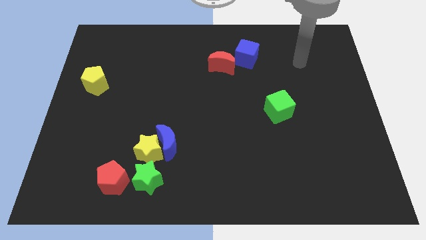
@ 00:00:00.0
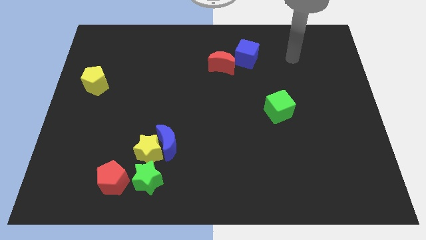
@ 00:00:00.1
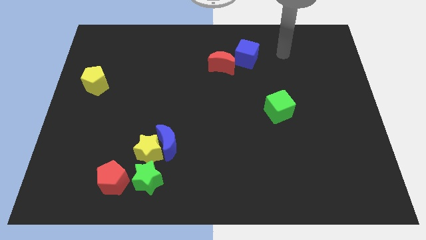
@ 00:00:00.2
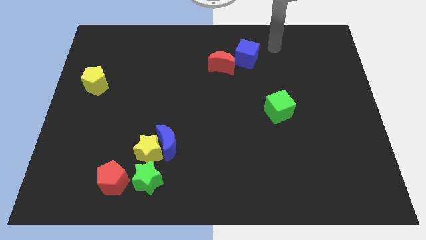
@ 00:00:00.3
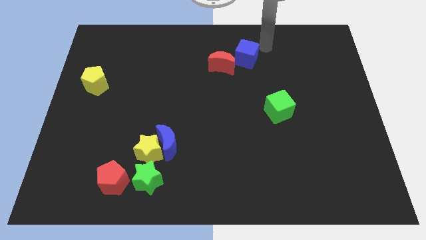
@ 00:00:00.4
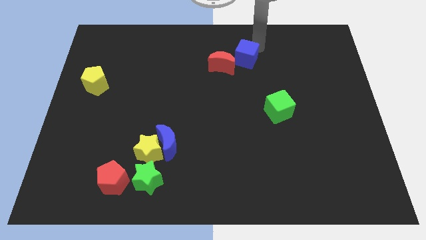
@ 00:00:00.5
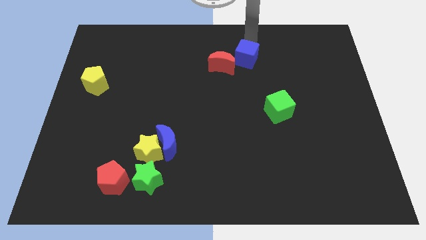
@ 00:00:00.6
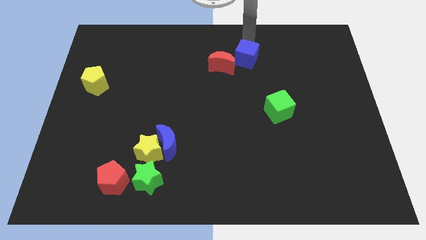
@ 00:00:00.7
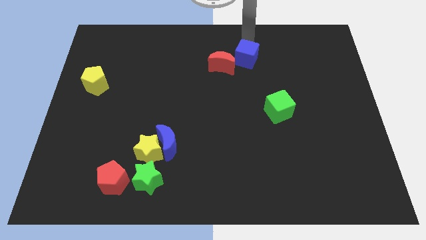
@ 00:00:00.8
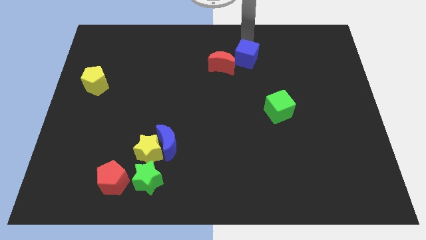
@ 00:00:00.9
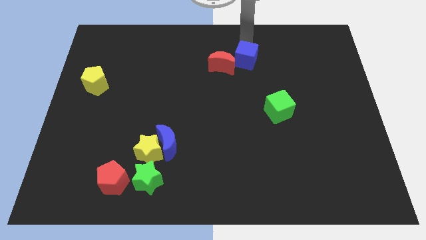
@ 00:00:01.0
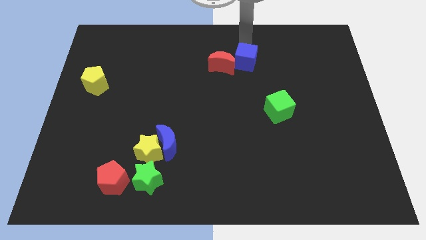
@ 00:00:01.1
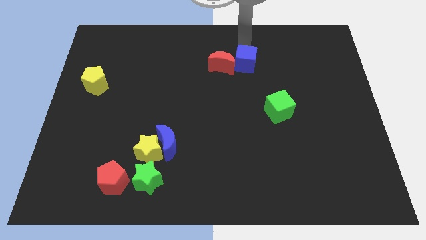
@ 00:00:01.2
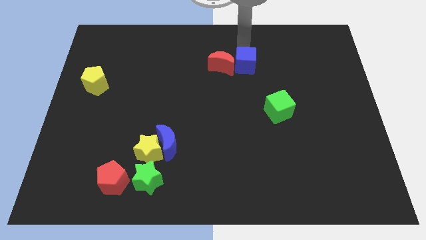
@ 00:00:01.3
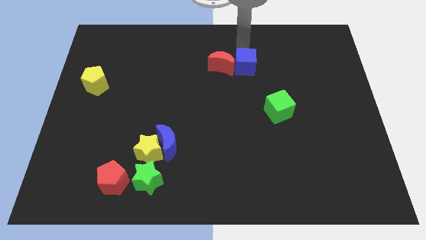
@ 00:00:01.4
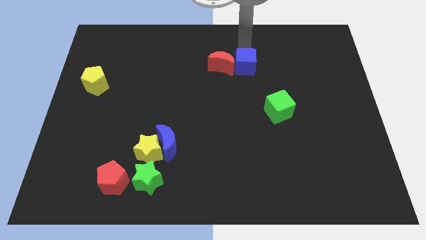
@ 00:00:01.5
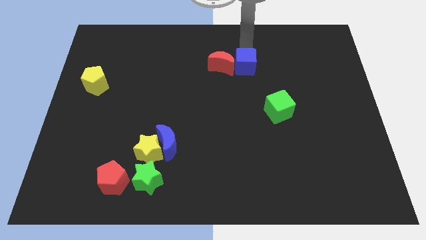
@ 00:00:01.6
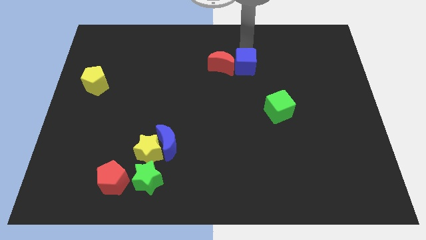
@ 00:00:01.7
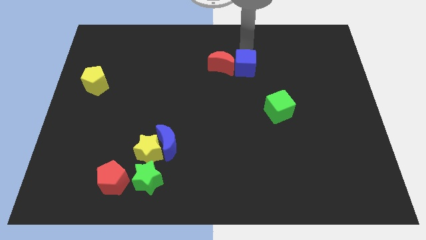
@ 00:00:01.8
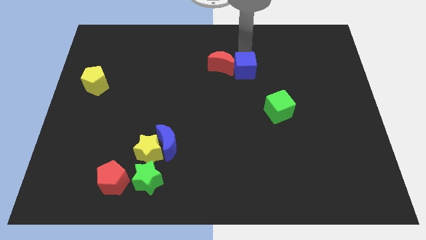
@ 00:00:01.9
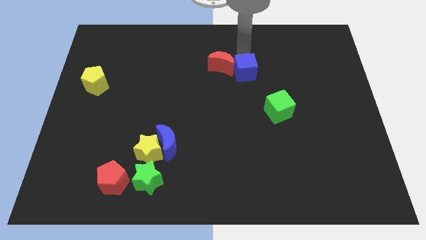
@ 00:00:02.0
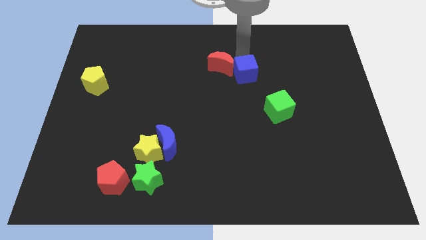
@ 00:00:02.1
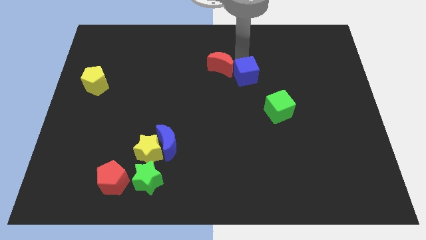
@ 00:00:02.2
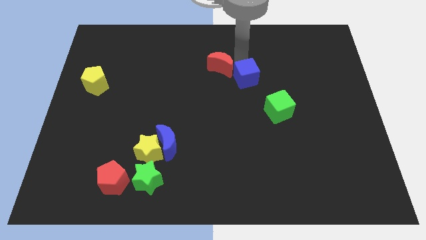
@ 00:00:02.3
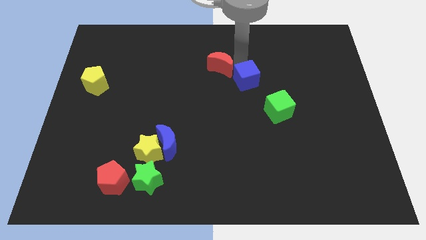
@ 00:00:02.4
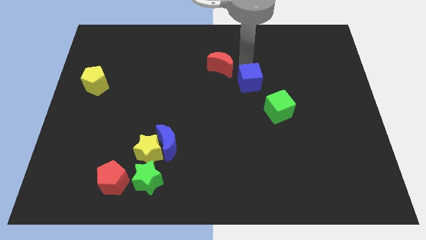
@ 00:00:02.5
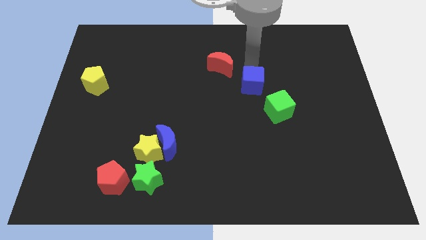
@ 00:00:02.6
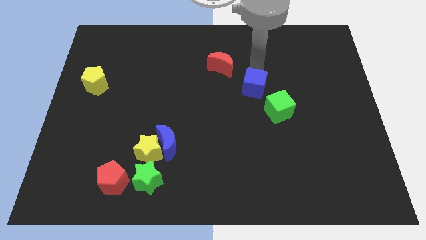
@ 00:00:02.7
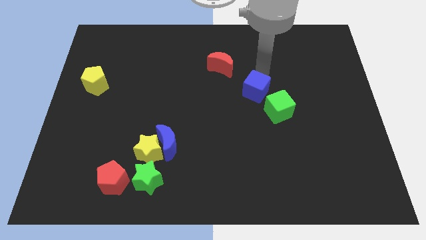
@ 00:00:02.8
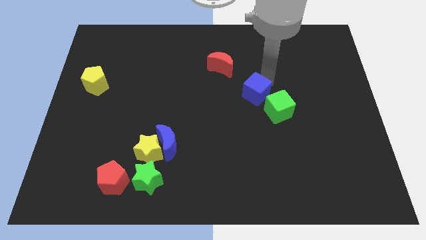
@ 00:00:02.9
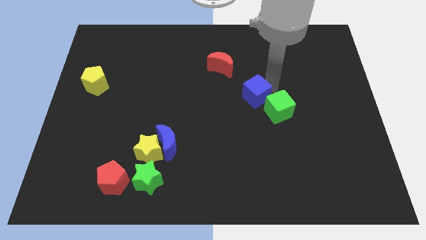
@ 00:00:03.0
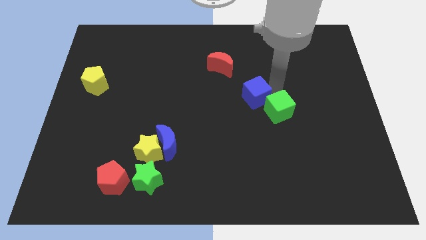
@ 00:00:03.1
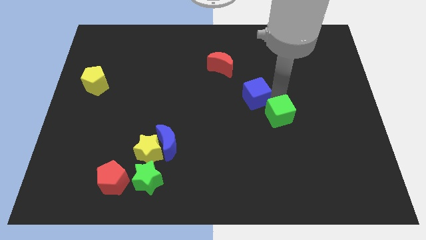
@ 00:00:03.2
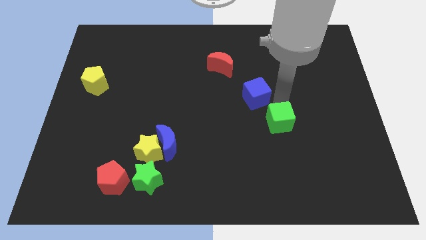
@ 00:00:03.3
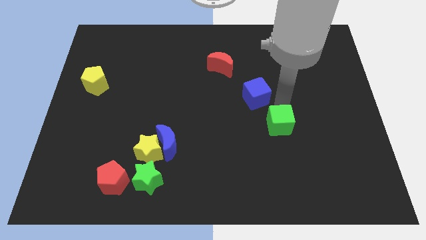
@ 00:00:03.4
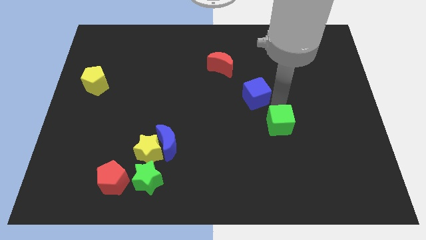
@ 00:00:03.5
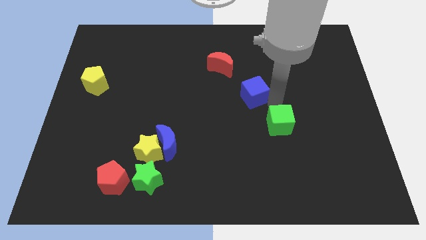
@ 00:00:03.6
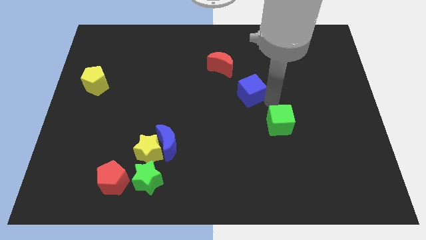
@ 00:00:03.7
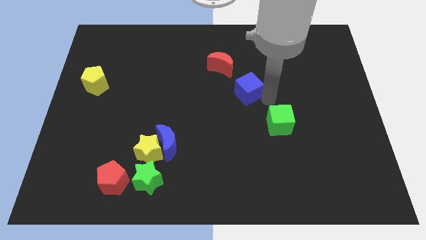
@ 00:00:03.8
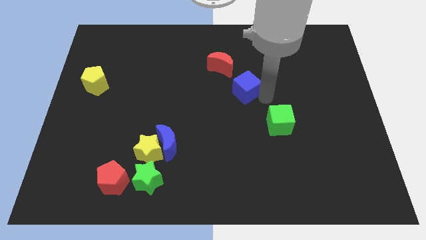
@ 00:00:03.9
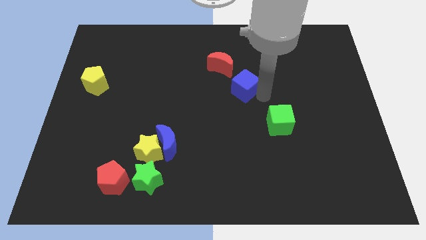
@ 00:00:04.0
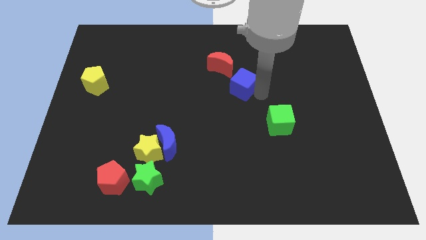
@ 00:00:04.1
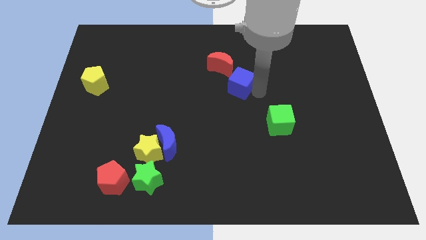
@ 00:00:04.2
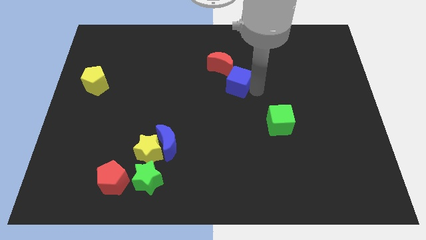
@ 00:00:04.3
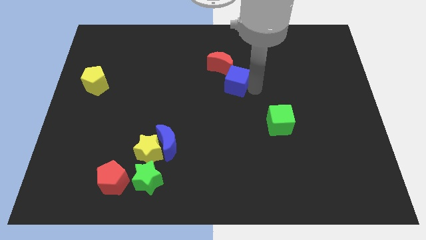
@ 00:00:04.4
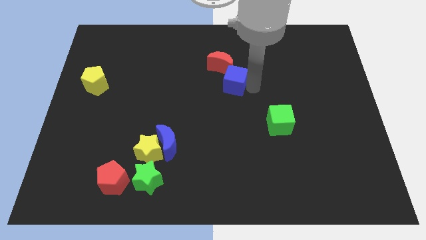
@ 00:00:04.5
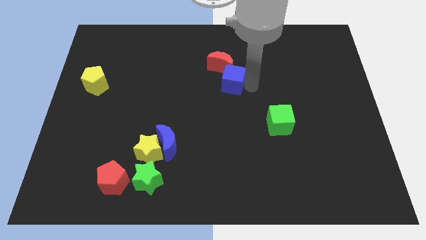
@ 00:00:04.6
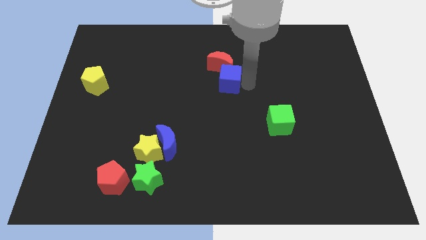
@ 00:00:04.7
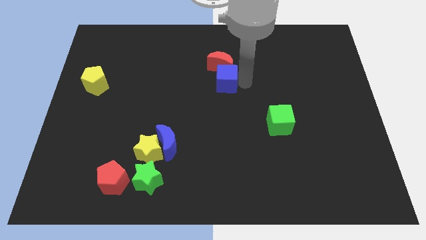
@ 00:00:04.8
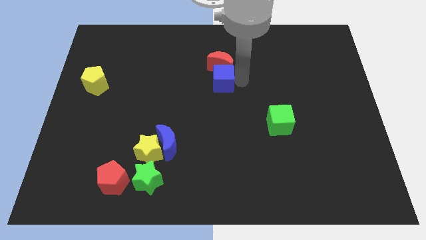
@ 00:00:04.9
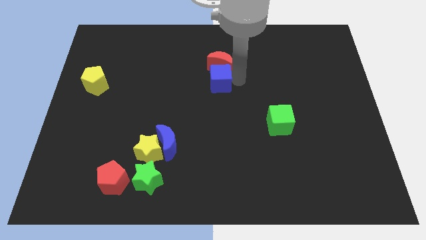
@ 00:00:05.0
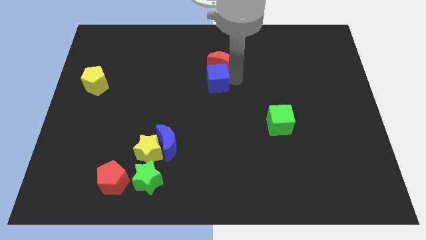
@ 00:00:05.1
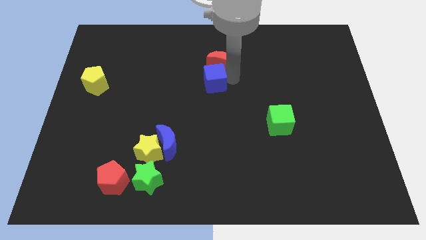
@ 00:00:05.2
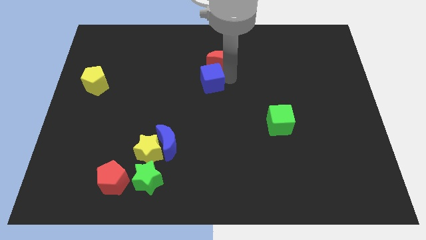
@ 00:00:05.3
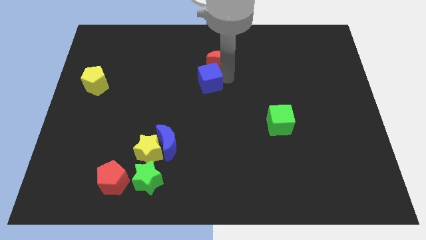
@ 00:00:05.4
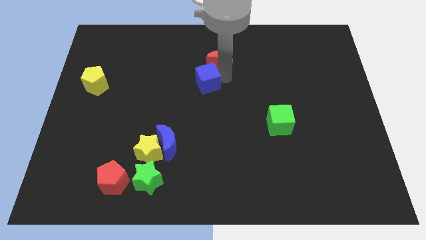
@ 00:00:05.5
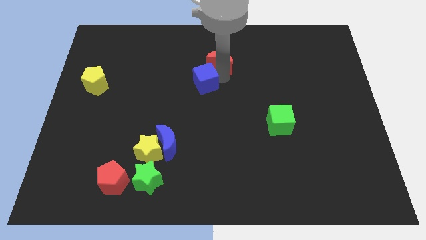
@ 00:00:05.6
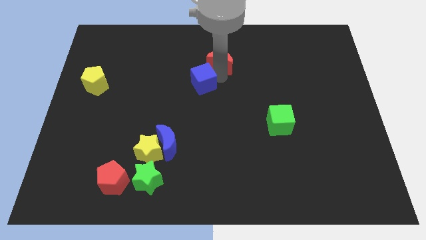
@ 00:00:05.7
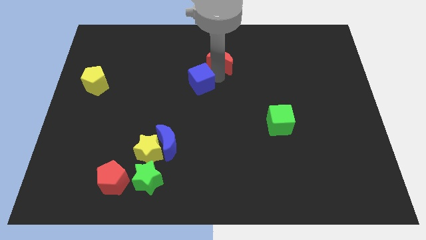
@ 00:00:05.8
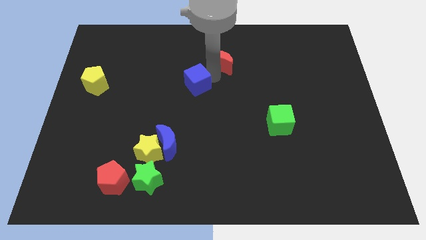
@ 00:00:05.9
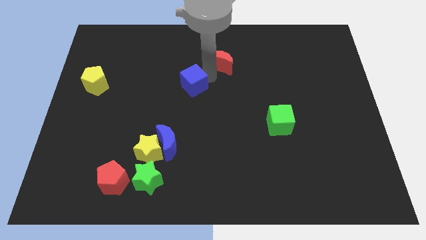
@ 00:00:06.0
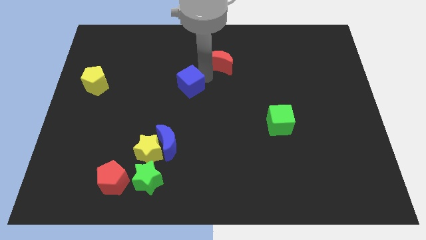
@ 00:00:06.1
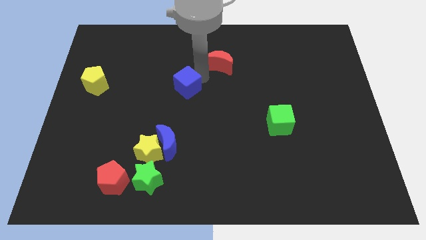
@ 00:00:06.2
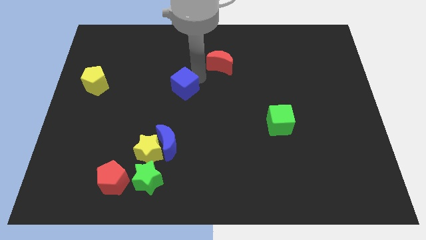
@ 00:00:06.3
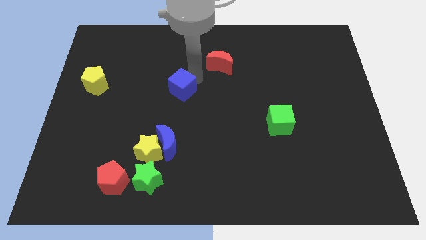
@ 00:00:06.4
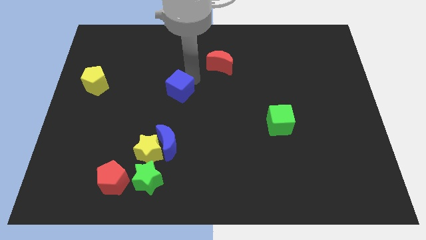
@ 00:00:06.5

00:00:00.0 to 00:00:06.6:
push the blue cube above the blue moon

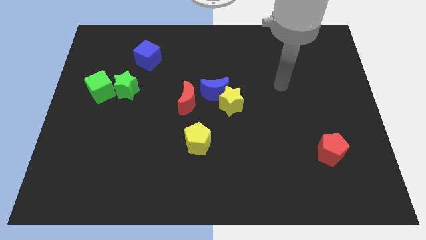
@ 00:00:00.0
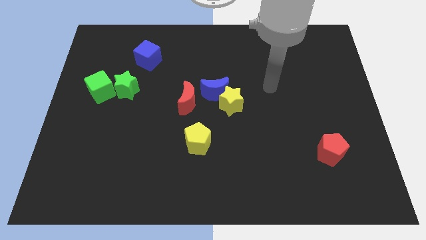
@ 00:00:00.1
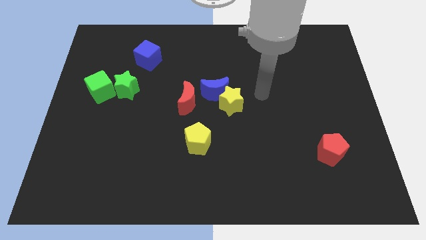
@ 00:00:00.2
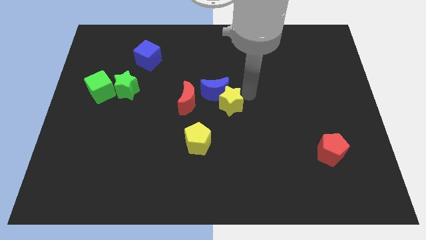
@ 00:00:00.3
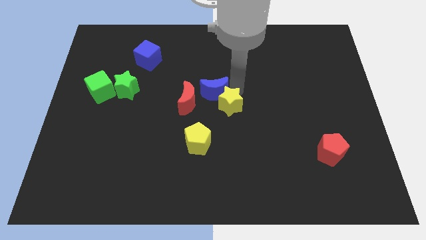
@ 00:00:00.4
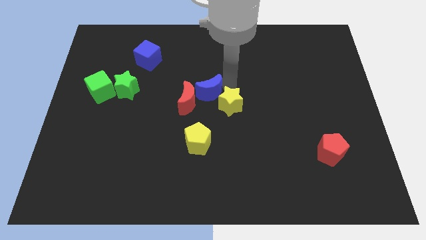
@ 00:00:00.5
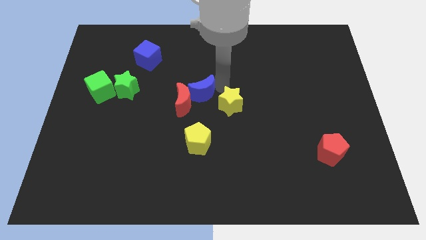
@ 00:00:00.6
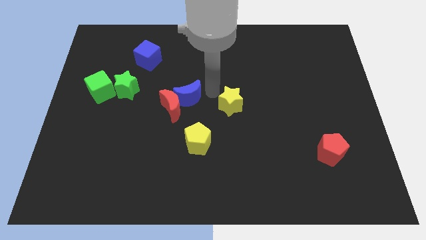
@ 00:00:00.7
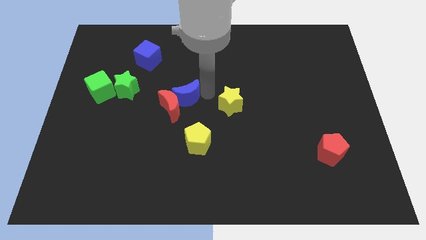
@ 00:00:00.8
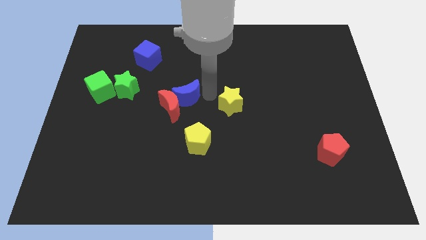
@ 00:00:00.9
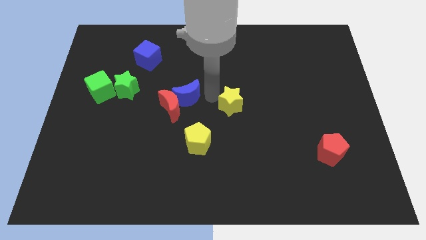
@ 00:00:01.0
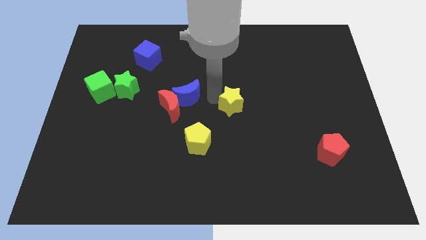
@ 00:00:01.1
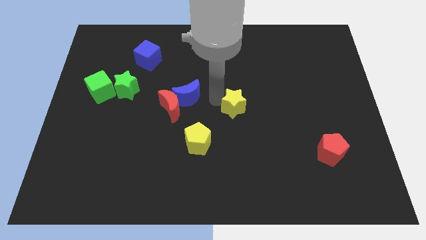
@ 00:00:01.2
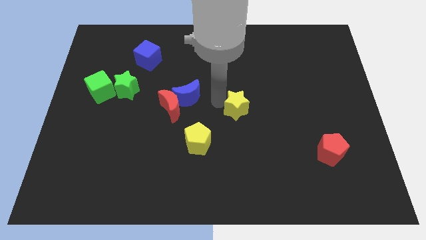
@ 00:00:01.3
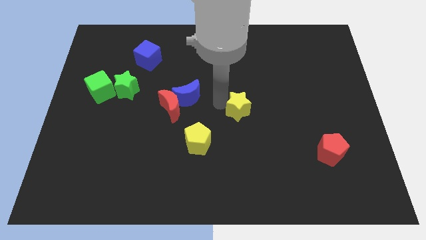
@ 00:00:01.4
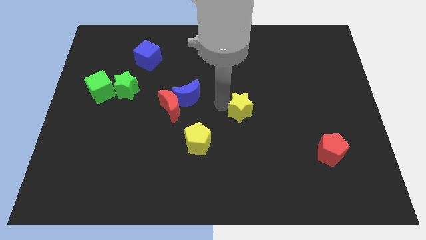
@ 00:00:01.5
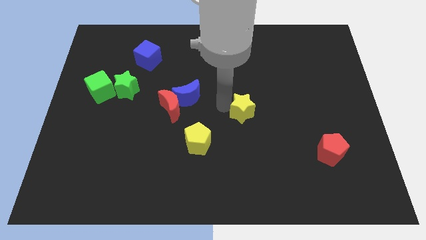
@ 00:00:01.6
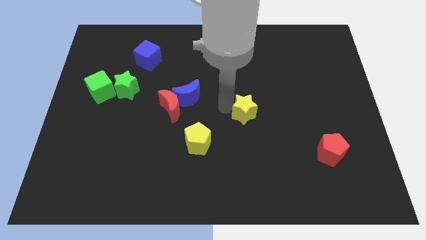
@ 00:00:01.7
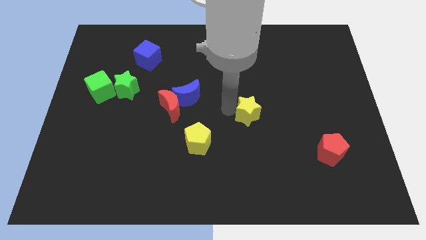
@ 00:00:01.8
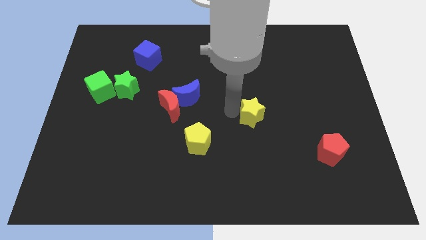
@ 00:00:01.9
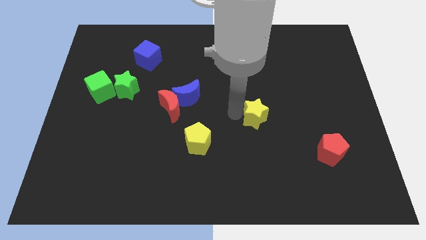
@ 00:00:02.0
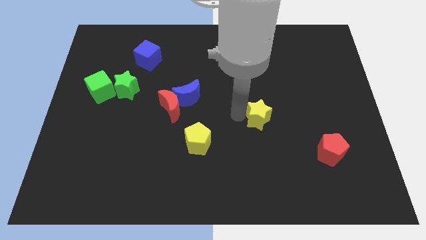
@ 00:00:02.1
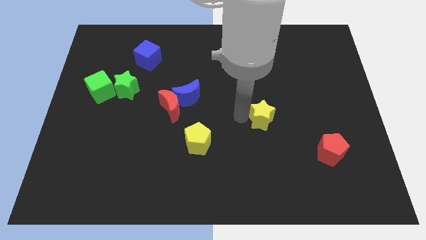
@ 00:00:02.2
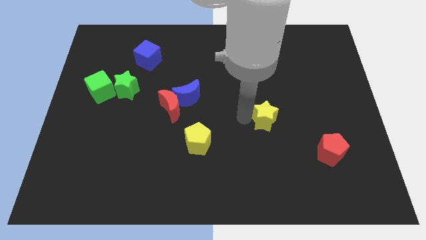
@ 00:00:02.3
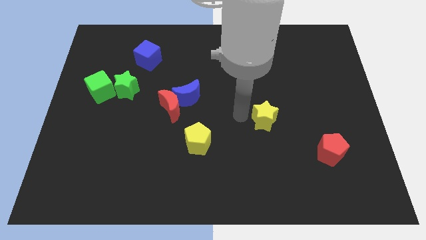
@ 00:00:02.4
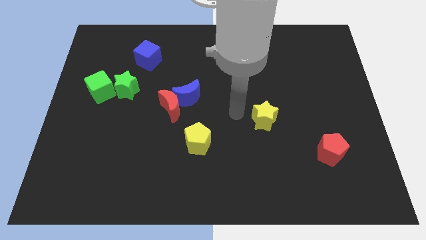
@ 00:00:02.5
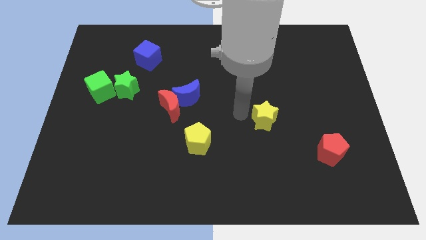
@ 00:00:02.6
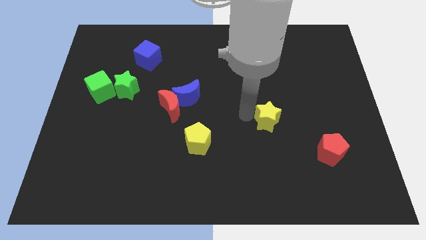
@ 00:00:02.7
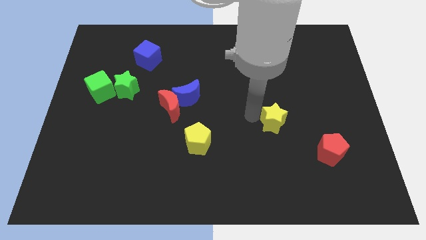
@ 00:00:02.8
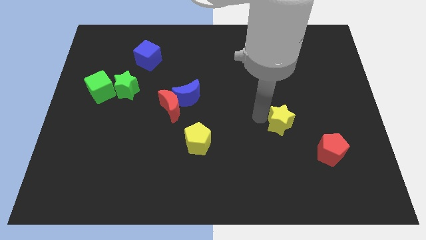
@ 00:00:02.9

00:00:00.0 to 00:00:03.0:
put the yellow star to the top left of the red pentagon
